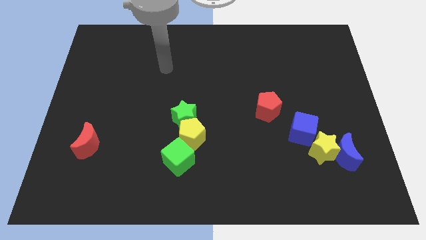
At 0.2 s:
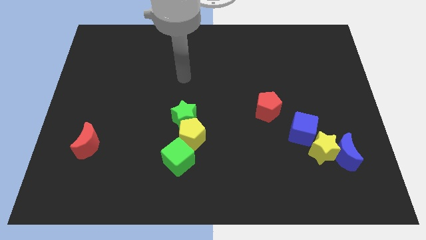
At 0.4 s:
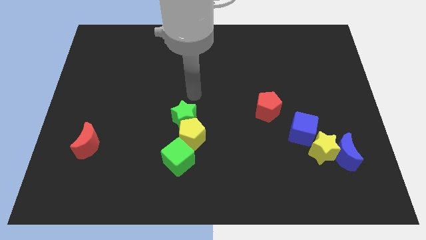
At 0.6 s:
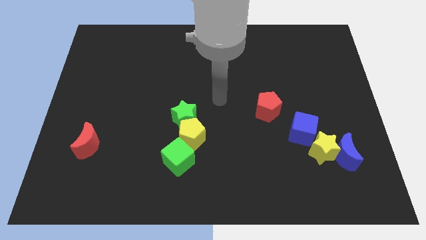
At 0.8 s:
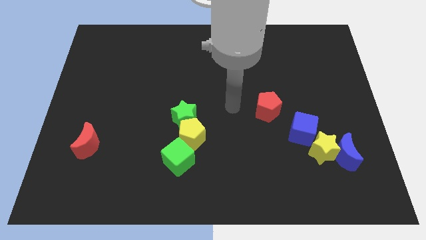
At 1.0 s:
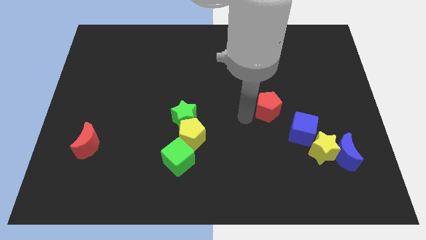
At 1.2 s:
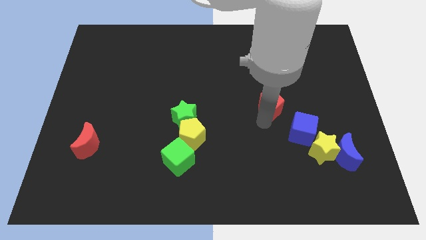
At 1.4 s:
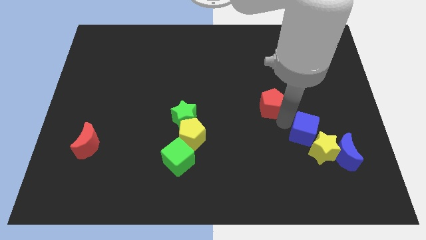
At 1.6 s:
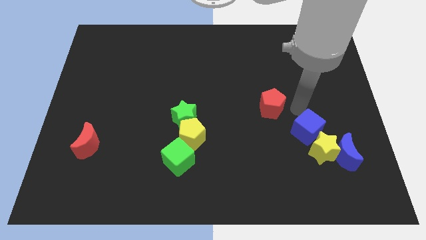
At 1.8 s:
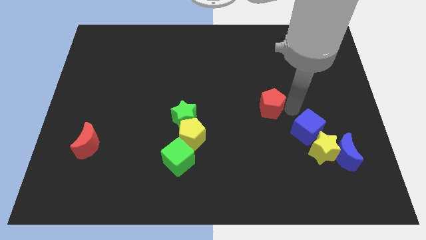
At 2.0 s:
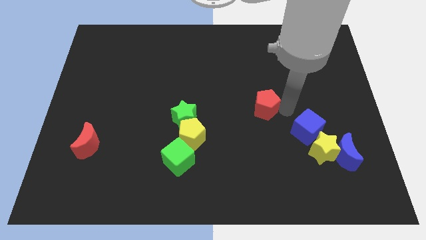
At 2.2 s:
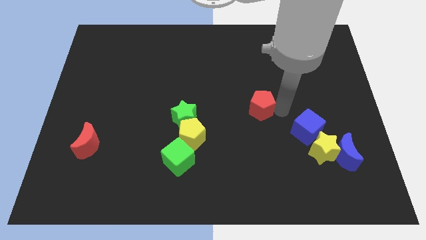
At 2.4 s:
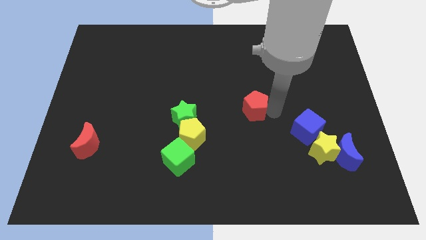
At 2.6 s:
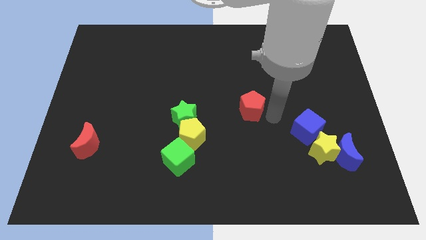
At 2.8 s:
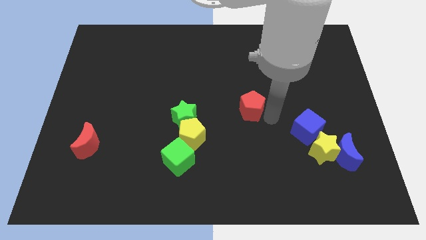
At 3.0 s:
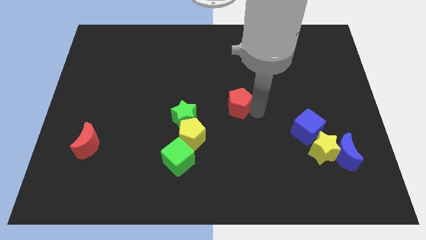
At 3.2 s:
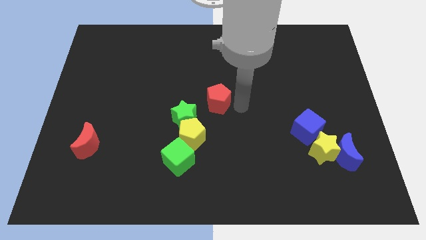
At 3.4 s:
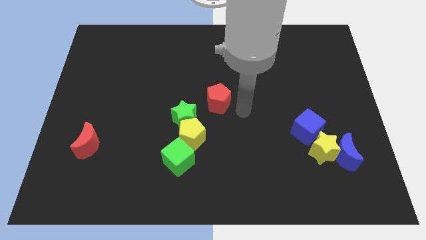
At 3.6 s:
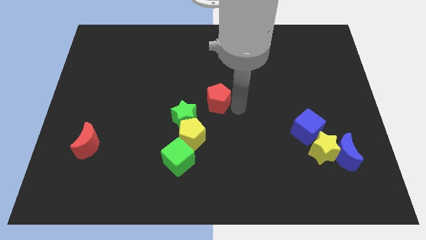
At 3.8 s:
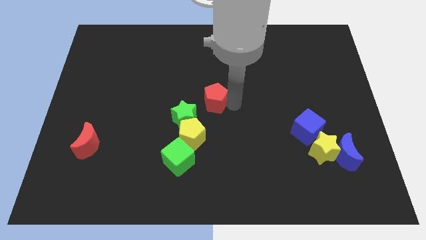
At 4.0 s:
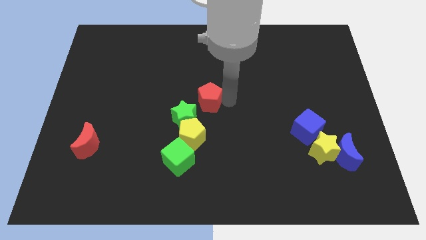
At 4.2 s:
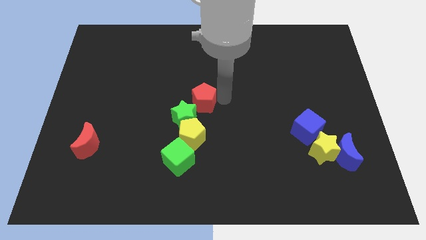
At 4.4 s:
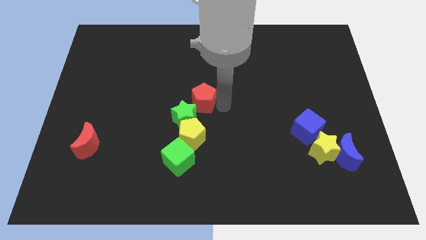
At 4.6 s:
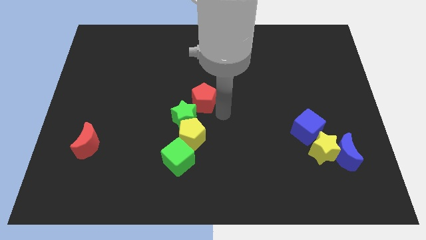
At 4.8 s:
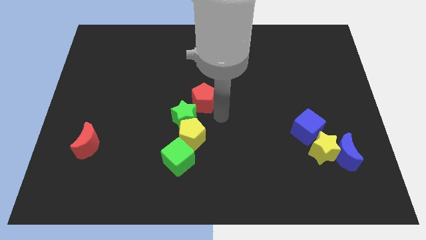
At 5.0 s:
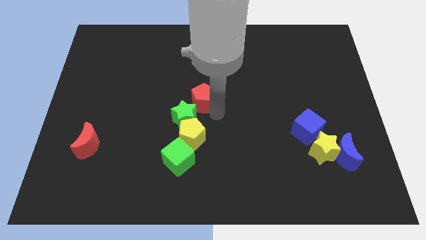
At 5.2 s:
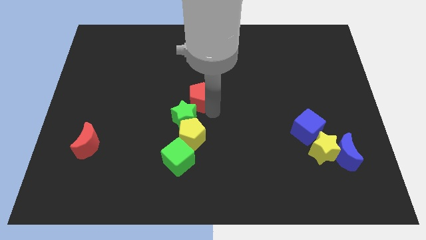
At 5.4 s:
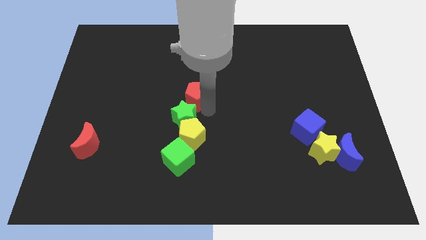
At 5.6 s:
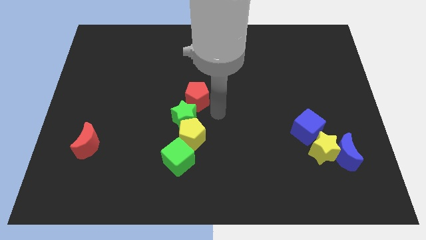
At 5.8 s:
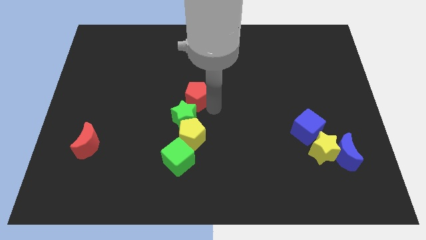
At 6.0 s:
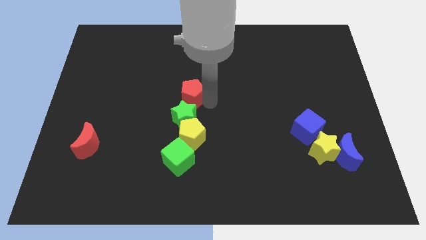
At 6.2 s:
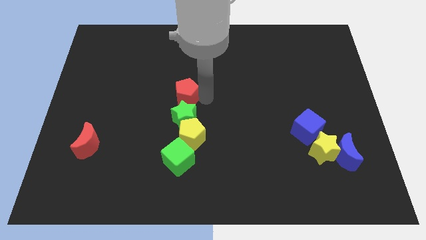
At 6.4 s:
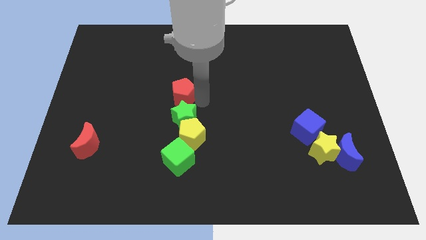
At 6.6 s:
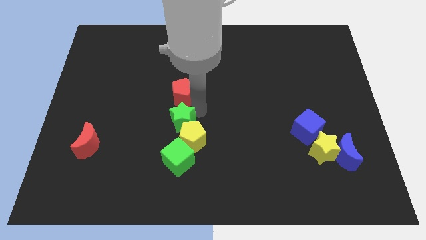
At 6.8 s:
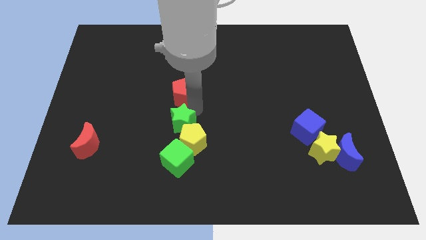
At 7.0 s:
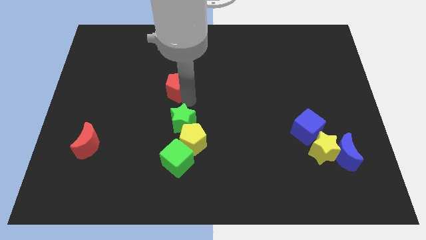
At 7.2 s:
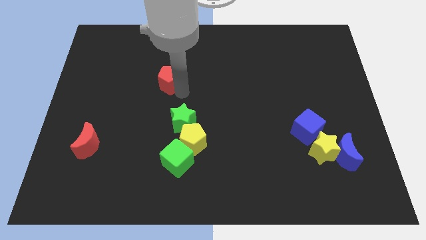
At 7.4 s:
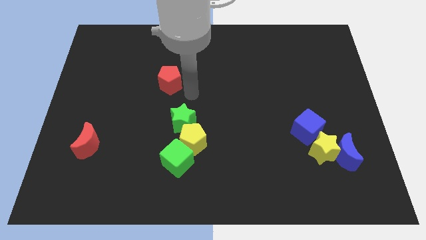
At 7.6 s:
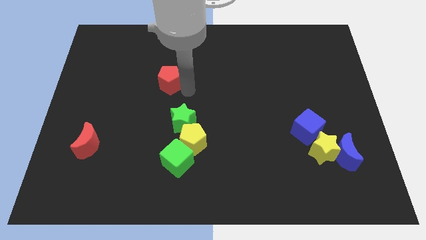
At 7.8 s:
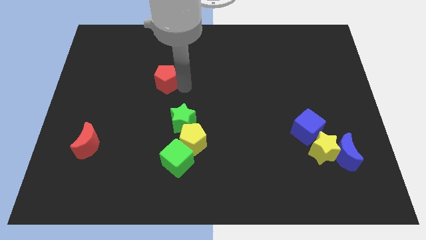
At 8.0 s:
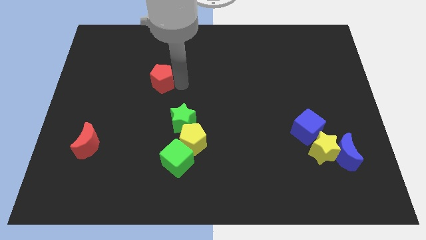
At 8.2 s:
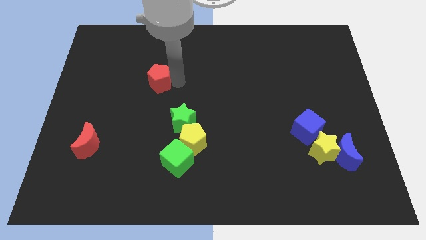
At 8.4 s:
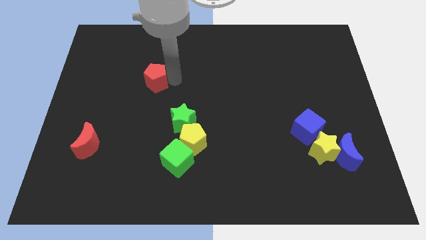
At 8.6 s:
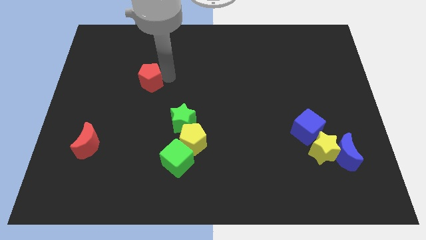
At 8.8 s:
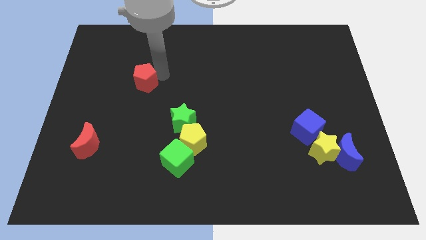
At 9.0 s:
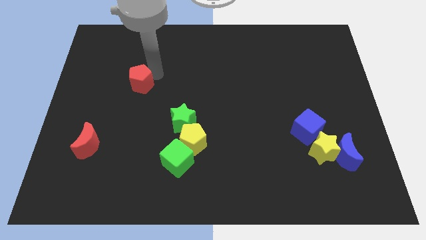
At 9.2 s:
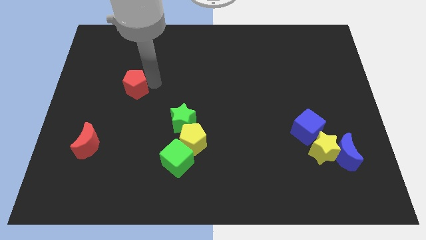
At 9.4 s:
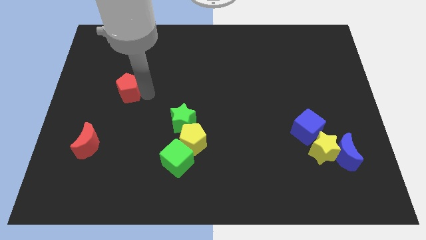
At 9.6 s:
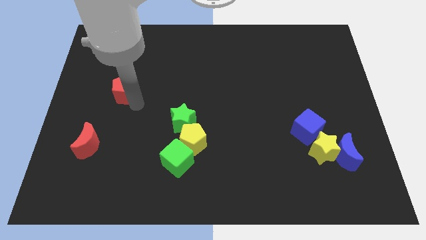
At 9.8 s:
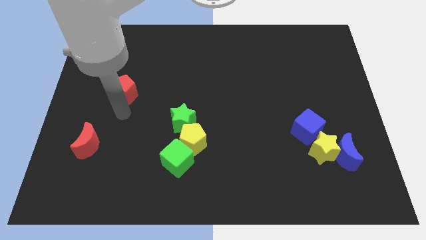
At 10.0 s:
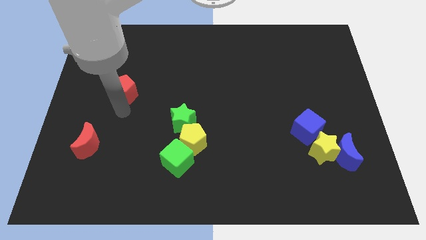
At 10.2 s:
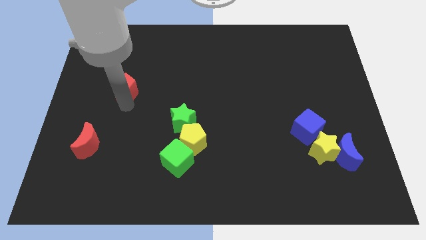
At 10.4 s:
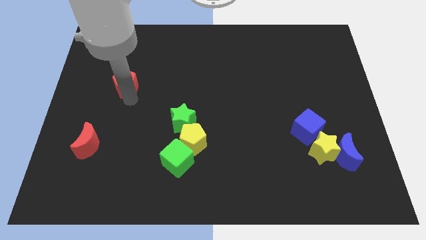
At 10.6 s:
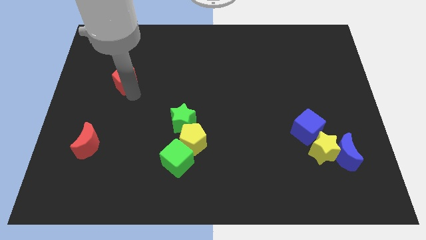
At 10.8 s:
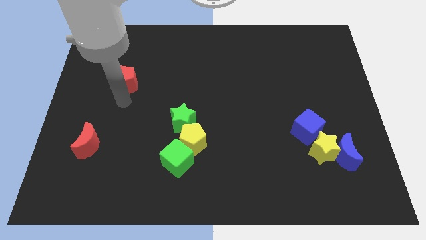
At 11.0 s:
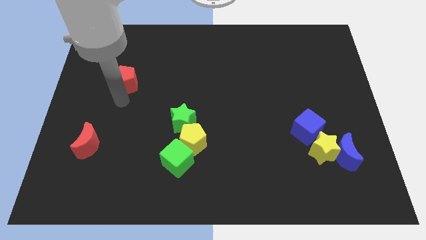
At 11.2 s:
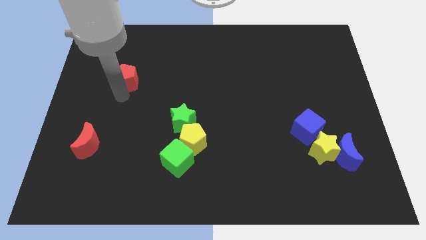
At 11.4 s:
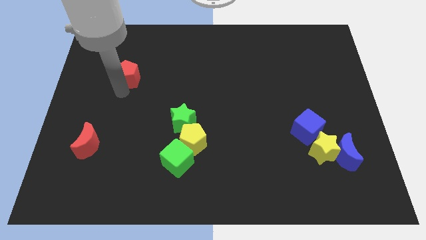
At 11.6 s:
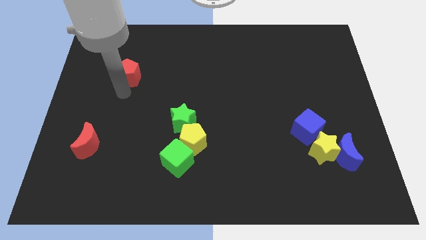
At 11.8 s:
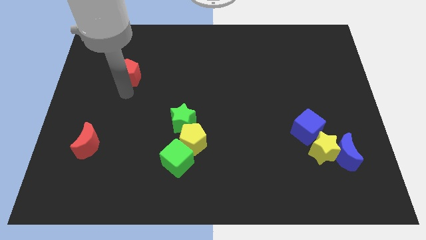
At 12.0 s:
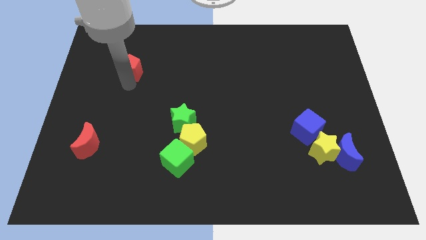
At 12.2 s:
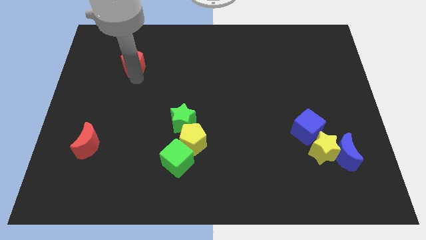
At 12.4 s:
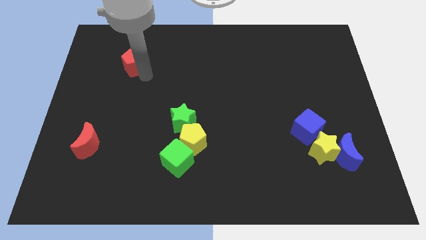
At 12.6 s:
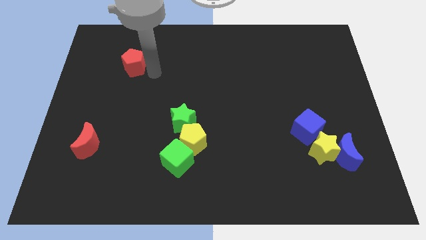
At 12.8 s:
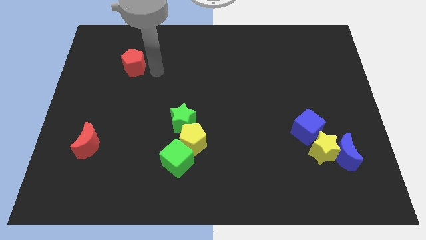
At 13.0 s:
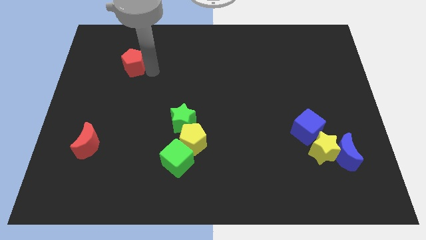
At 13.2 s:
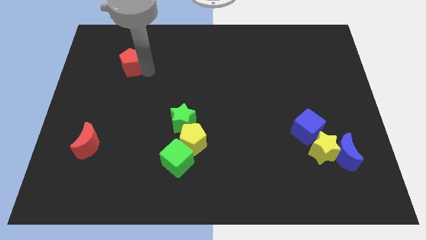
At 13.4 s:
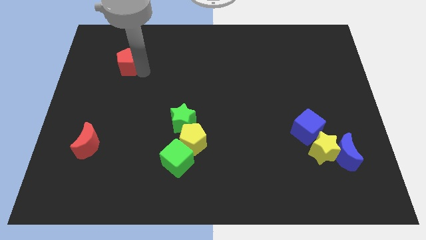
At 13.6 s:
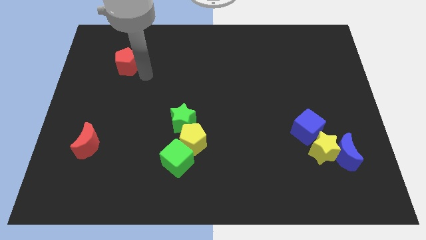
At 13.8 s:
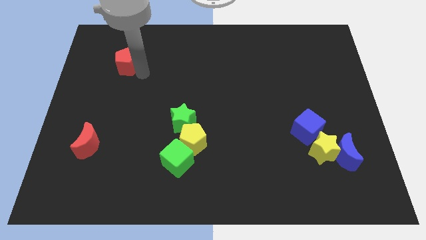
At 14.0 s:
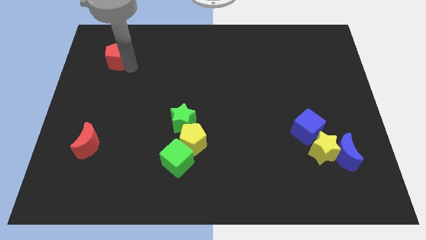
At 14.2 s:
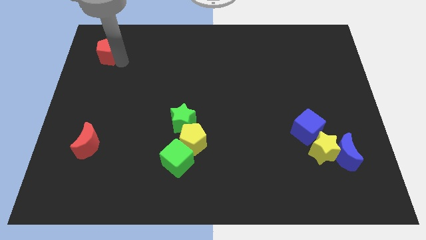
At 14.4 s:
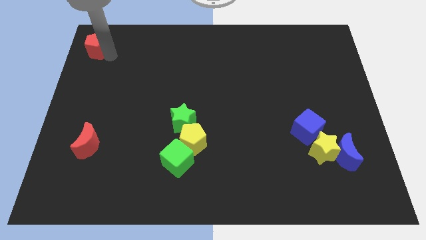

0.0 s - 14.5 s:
push the red pentagon to the top left corner
